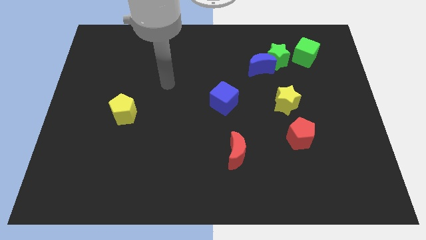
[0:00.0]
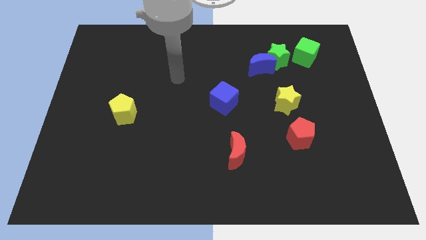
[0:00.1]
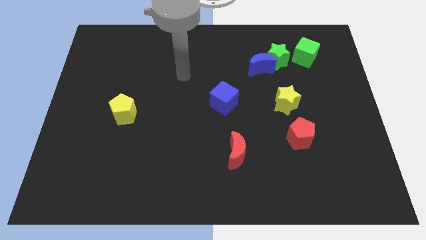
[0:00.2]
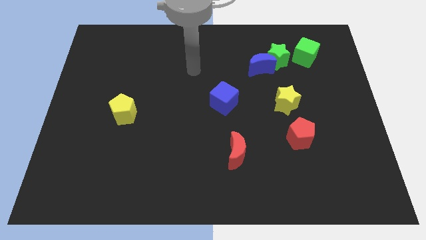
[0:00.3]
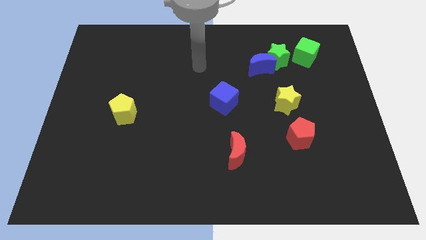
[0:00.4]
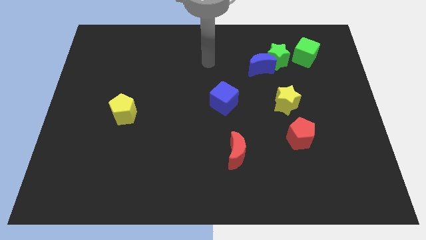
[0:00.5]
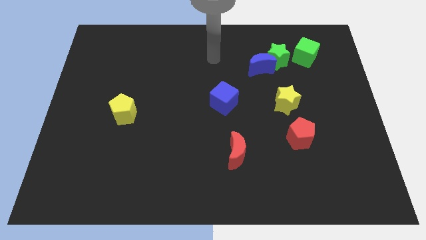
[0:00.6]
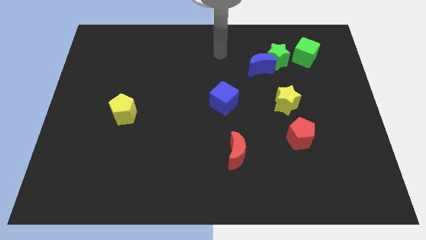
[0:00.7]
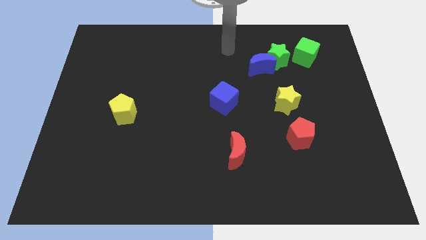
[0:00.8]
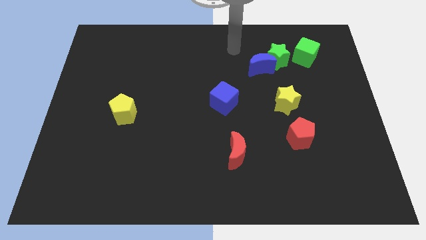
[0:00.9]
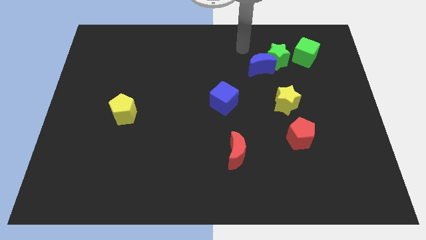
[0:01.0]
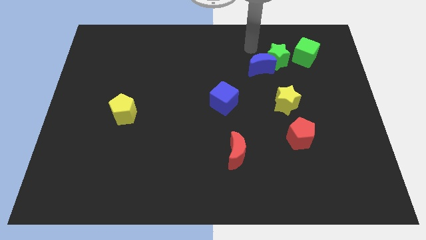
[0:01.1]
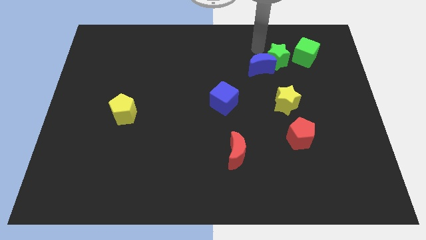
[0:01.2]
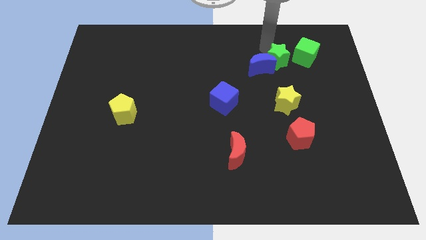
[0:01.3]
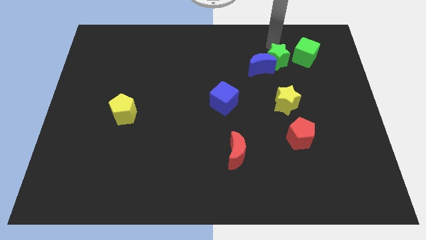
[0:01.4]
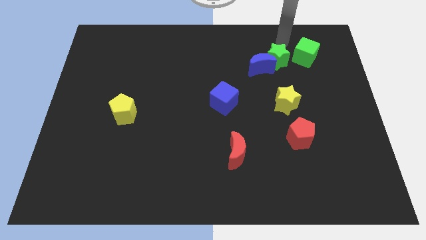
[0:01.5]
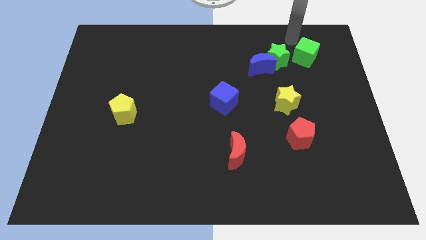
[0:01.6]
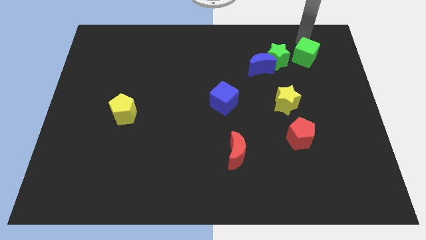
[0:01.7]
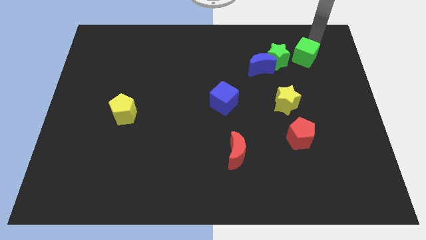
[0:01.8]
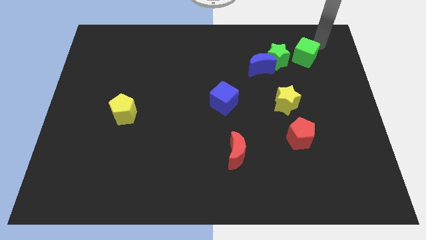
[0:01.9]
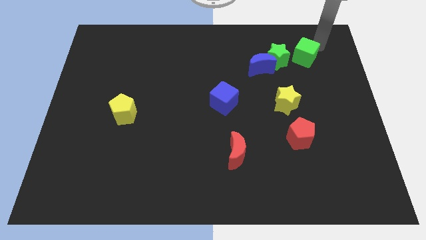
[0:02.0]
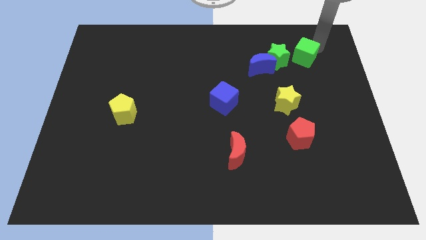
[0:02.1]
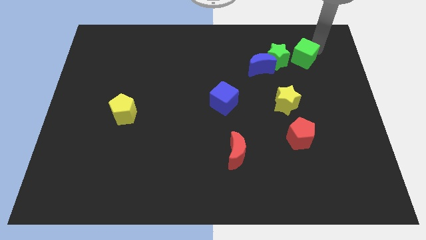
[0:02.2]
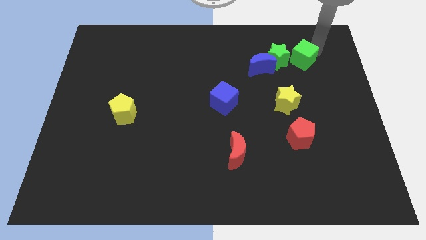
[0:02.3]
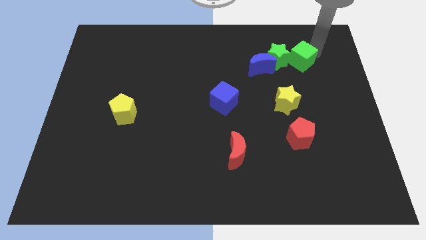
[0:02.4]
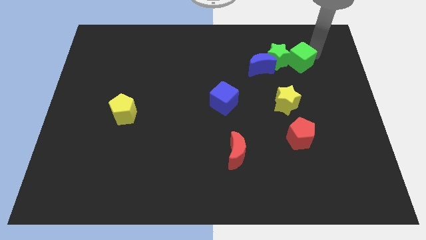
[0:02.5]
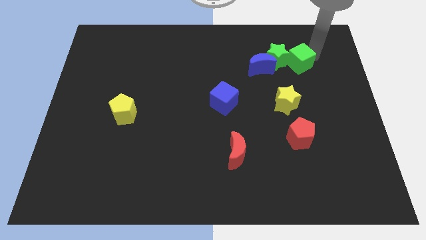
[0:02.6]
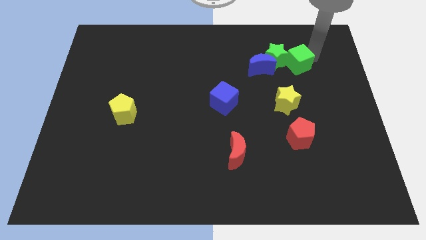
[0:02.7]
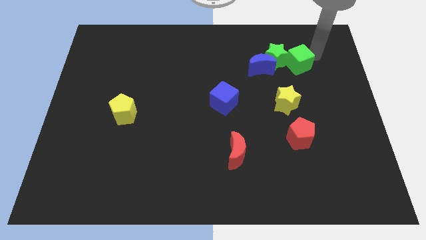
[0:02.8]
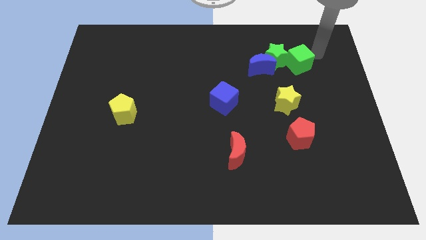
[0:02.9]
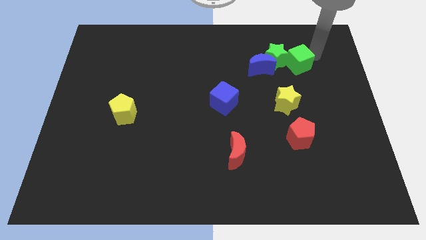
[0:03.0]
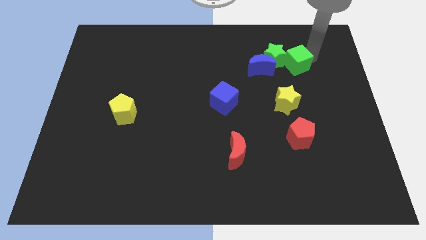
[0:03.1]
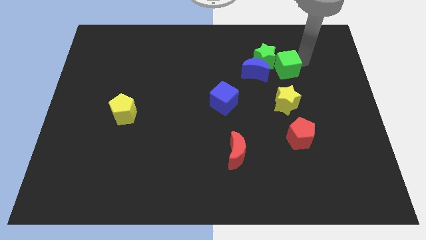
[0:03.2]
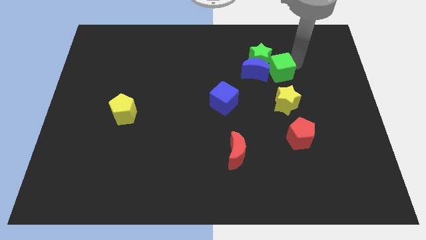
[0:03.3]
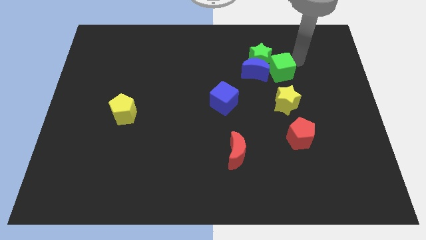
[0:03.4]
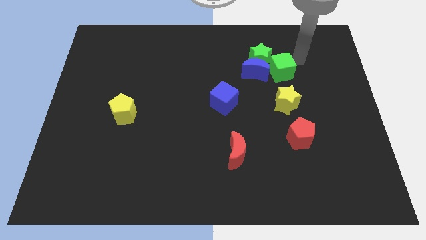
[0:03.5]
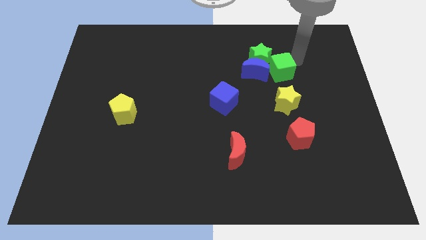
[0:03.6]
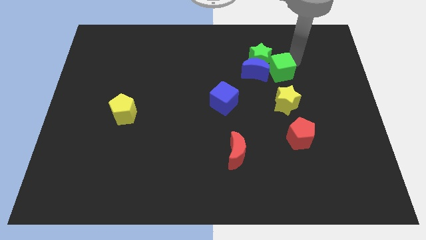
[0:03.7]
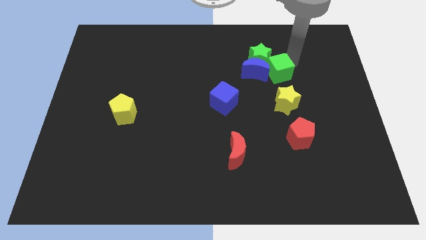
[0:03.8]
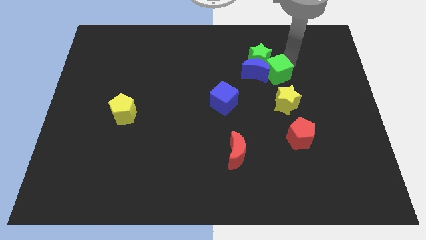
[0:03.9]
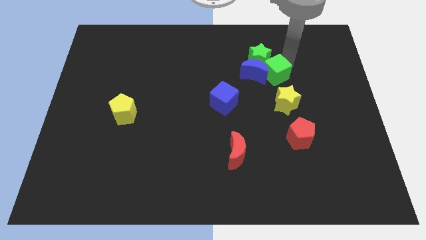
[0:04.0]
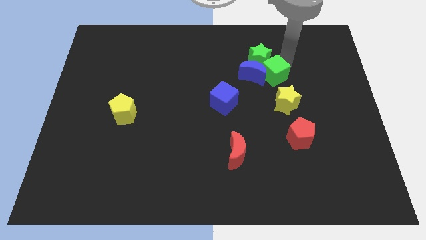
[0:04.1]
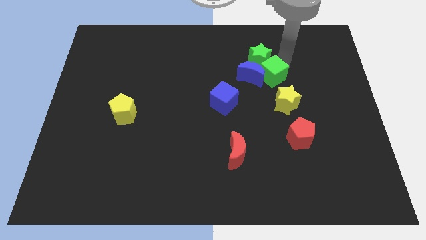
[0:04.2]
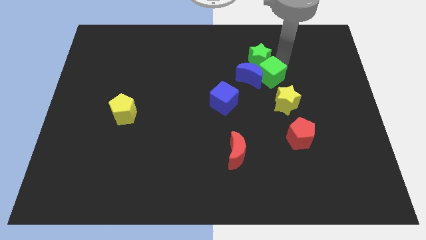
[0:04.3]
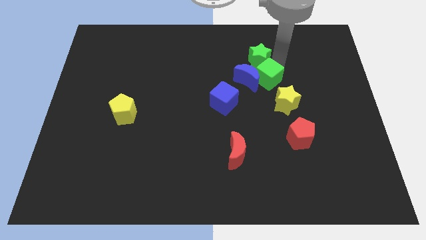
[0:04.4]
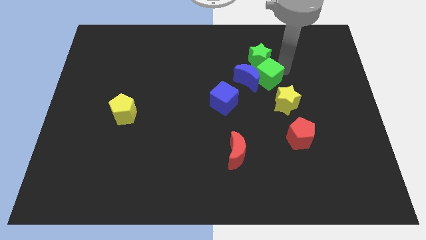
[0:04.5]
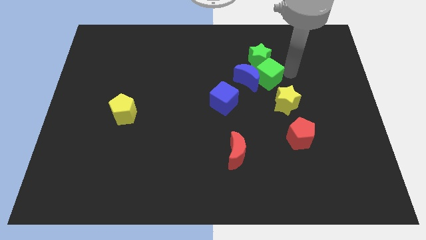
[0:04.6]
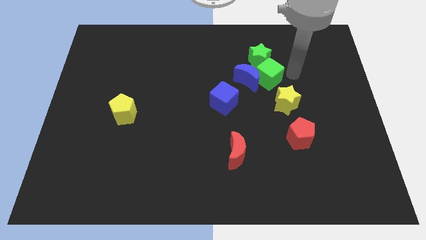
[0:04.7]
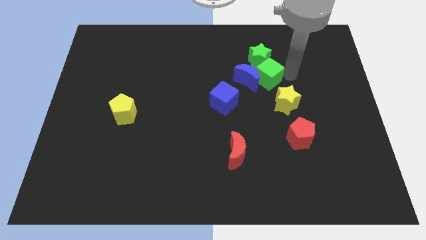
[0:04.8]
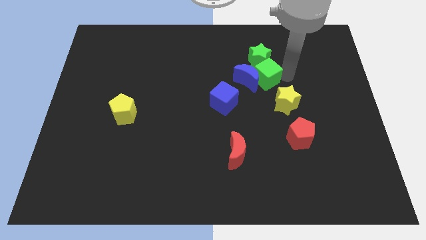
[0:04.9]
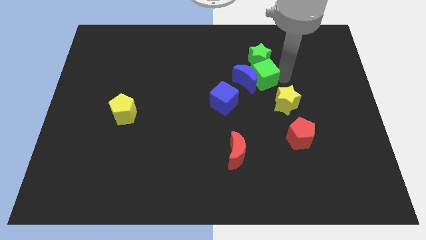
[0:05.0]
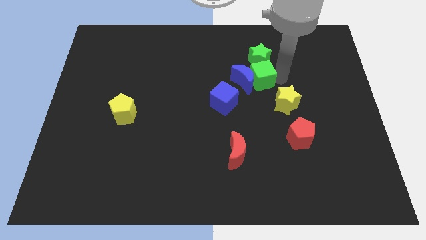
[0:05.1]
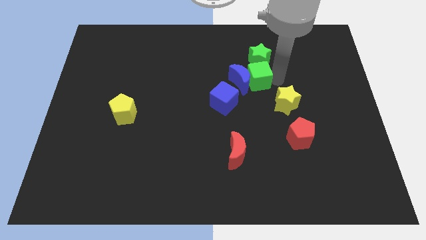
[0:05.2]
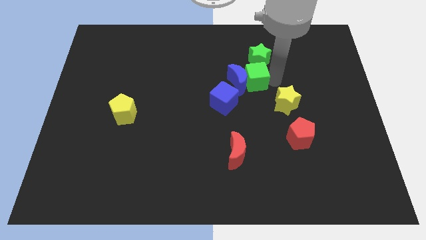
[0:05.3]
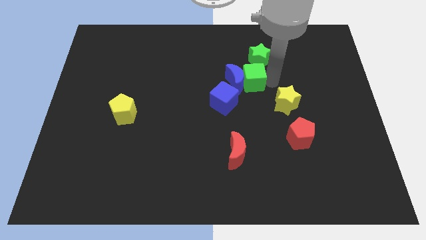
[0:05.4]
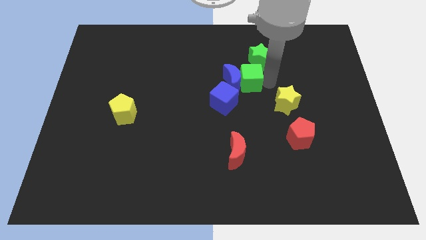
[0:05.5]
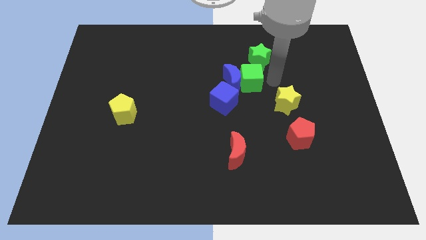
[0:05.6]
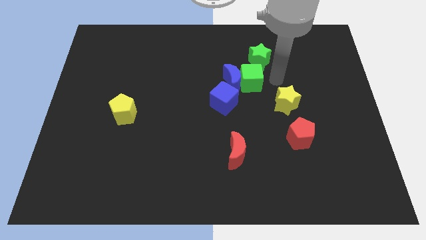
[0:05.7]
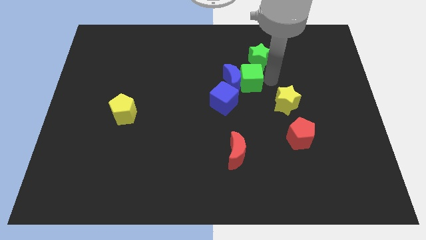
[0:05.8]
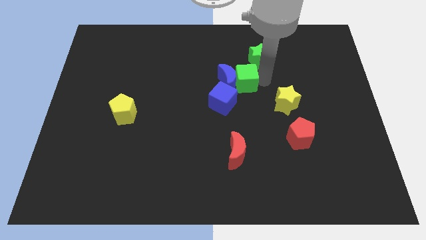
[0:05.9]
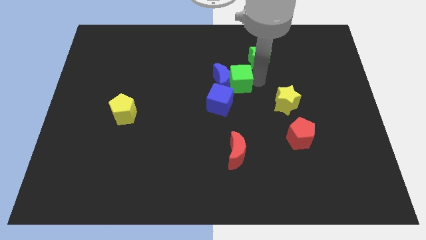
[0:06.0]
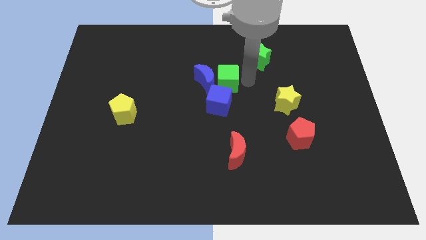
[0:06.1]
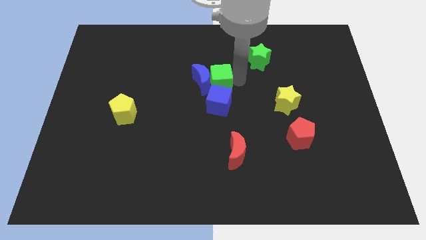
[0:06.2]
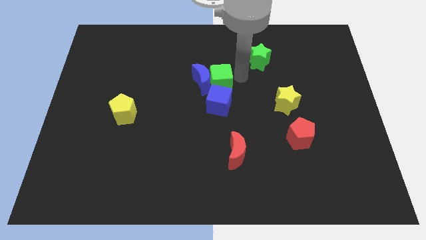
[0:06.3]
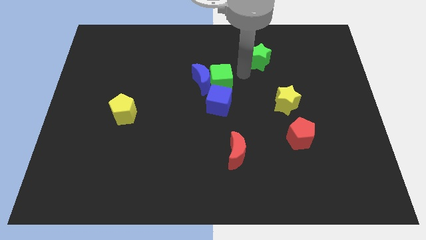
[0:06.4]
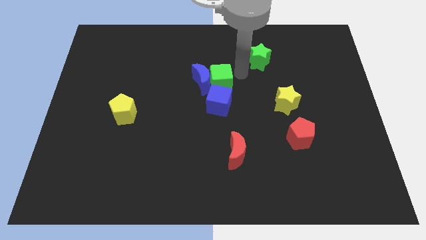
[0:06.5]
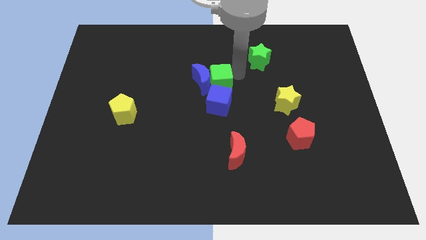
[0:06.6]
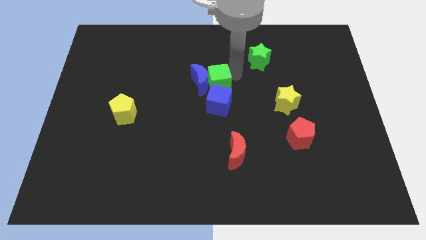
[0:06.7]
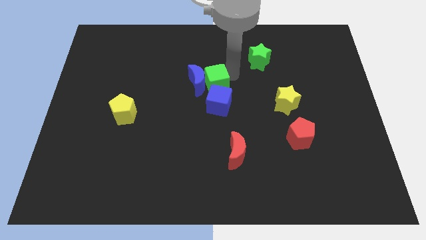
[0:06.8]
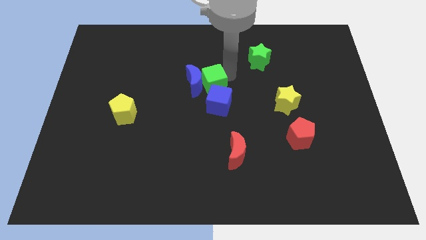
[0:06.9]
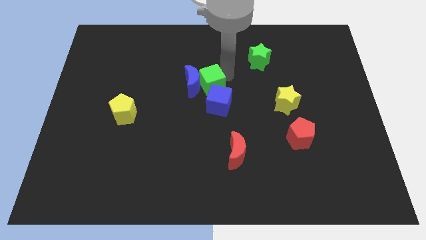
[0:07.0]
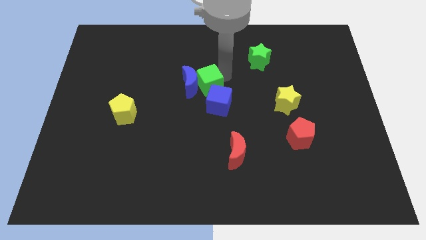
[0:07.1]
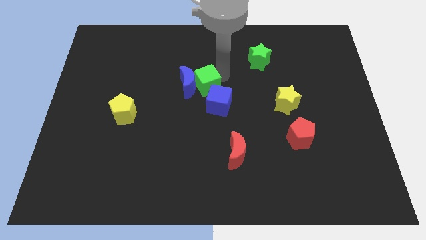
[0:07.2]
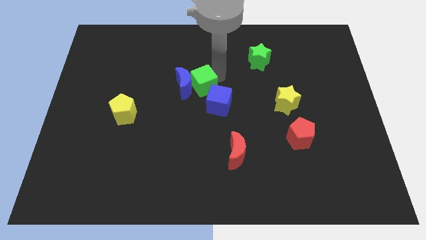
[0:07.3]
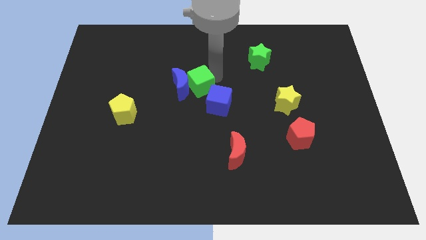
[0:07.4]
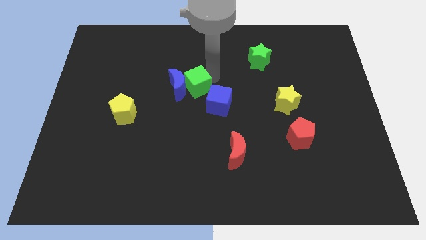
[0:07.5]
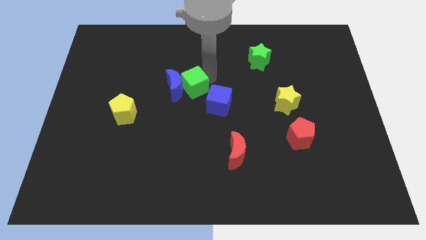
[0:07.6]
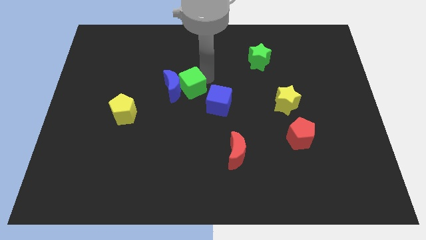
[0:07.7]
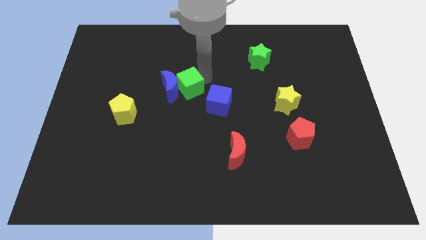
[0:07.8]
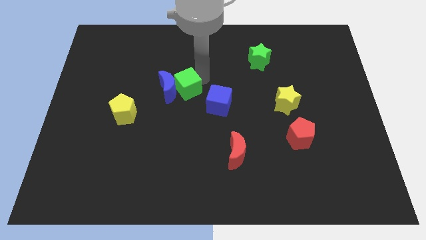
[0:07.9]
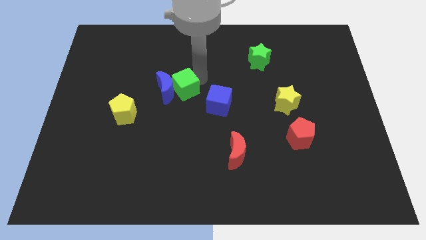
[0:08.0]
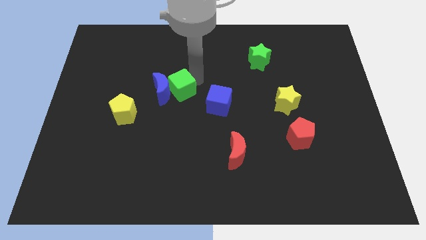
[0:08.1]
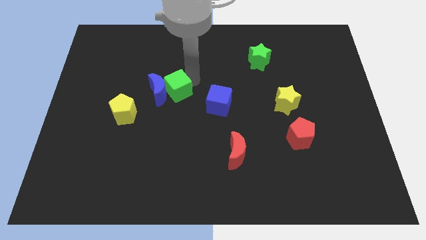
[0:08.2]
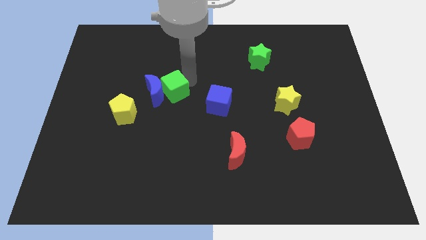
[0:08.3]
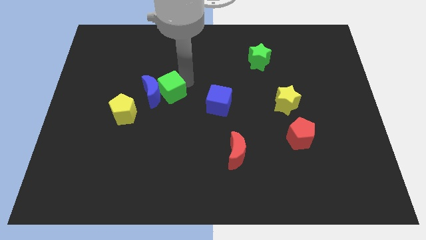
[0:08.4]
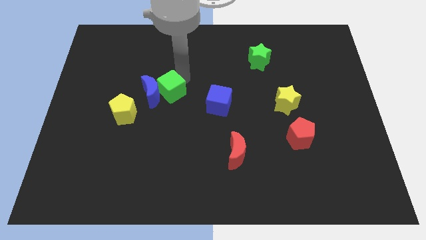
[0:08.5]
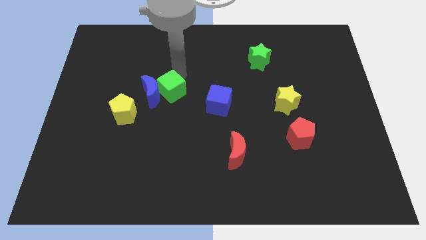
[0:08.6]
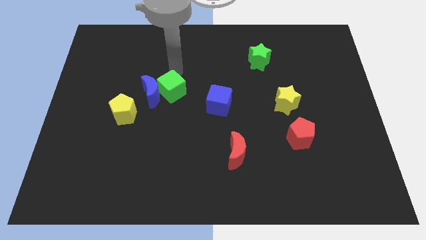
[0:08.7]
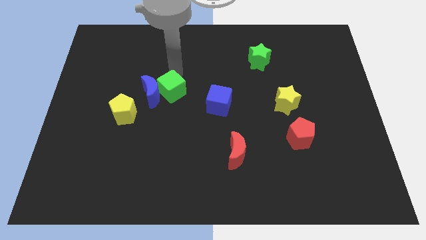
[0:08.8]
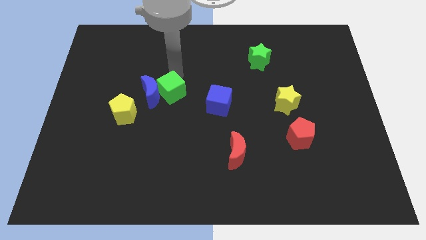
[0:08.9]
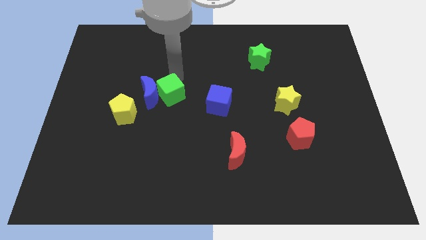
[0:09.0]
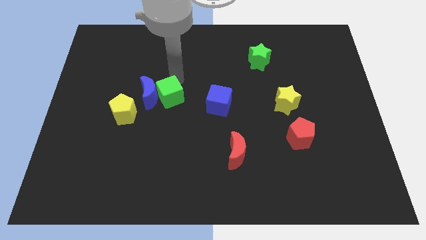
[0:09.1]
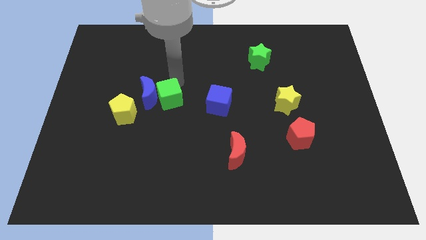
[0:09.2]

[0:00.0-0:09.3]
slide the green cube to the right of the yellow pentagon
